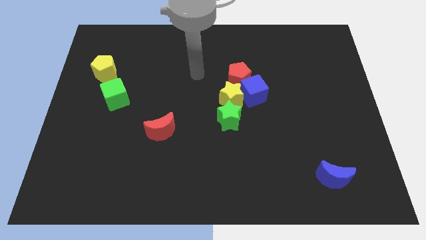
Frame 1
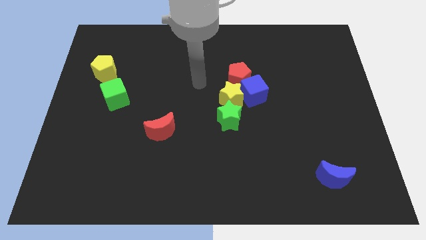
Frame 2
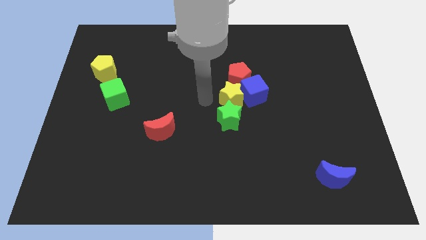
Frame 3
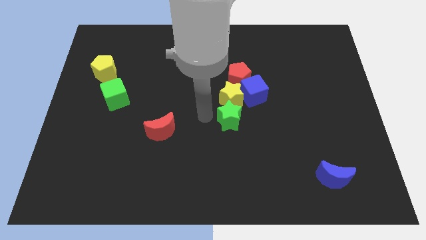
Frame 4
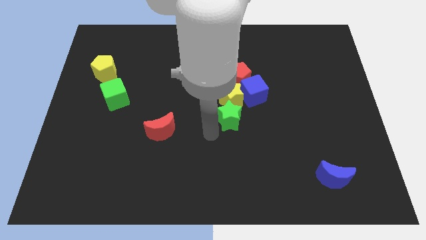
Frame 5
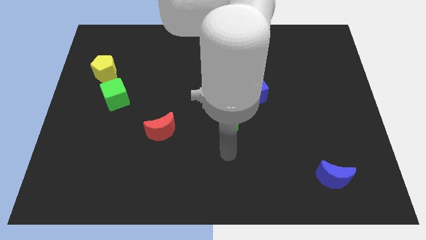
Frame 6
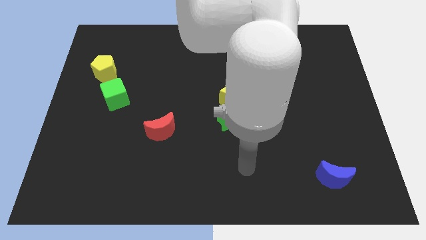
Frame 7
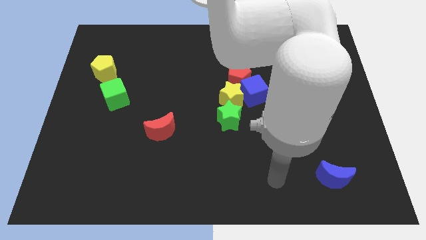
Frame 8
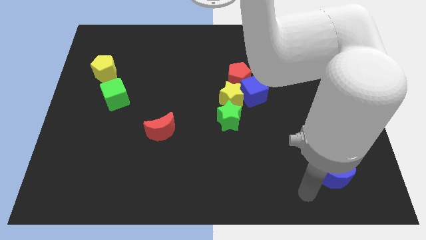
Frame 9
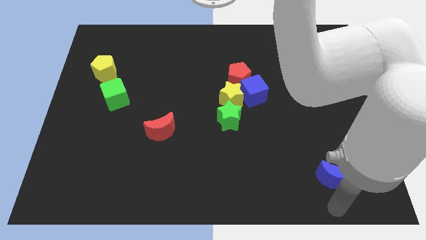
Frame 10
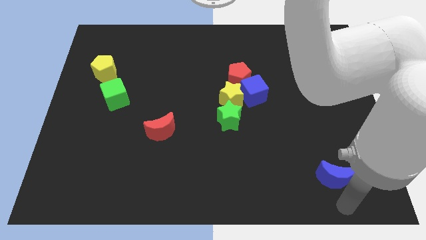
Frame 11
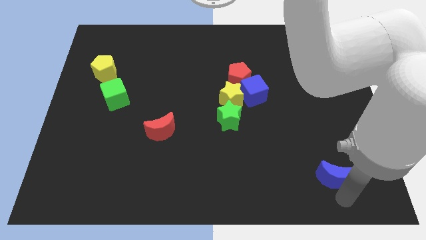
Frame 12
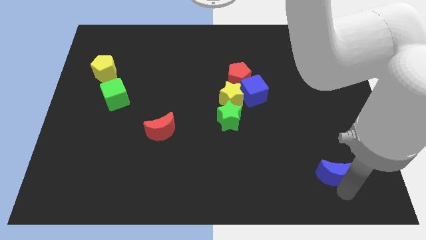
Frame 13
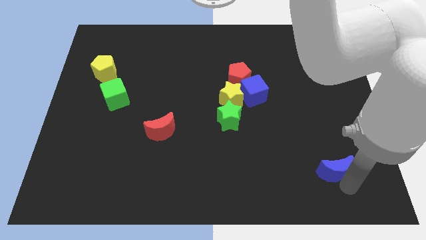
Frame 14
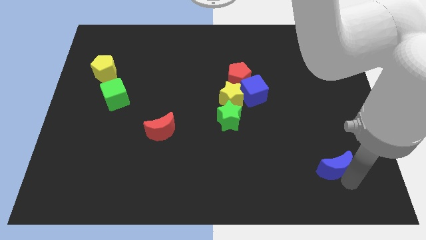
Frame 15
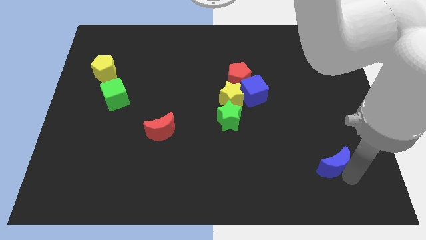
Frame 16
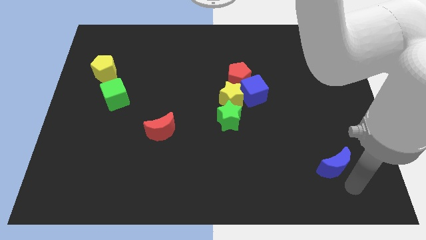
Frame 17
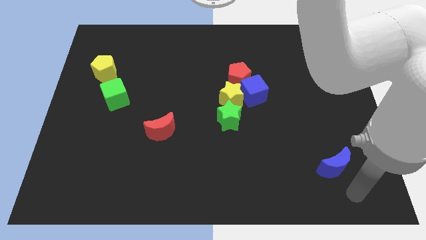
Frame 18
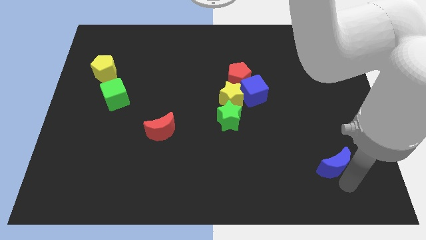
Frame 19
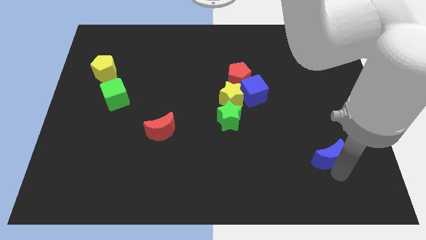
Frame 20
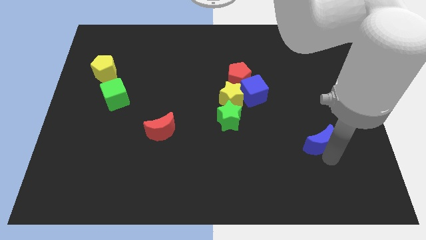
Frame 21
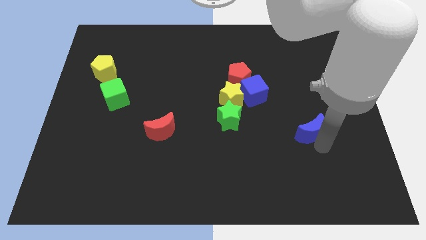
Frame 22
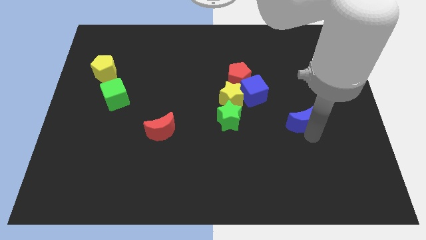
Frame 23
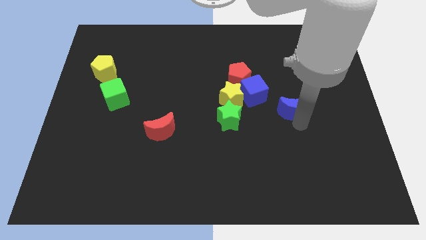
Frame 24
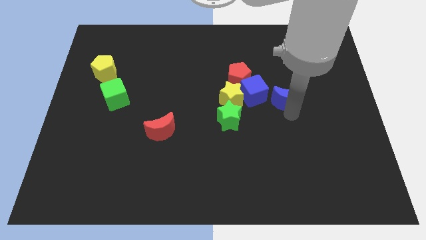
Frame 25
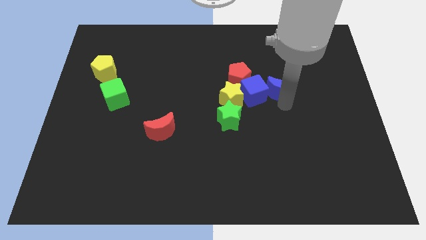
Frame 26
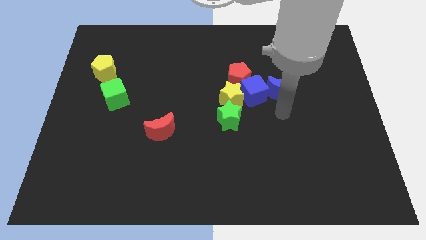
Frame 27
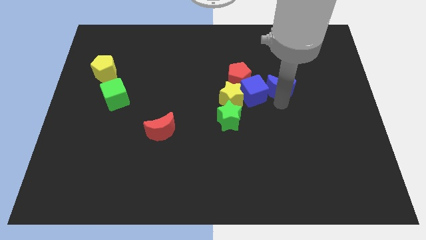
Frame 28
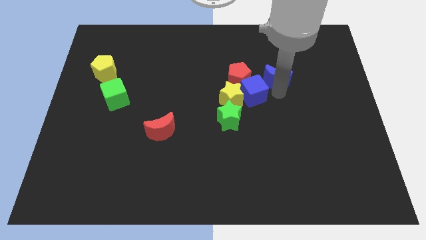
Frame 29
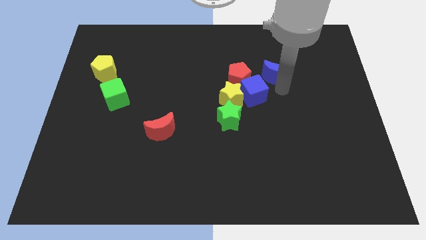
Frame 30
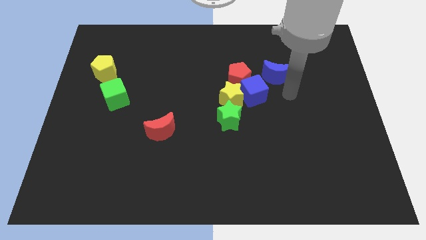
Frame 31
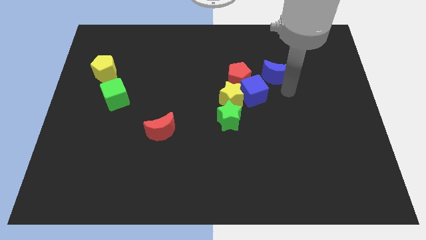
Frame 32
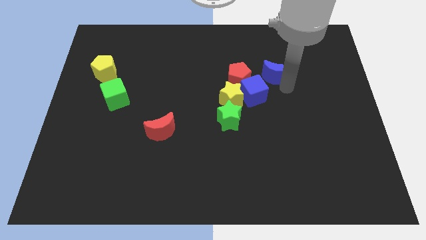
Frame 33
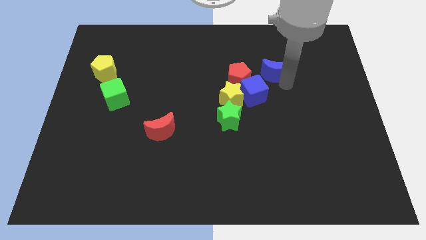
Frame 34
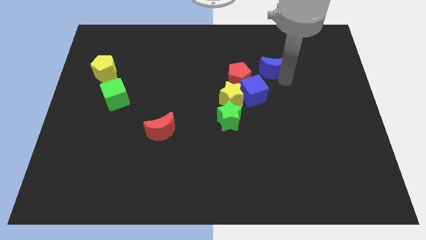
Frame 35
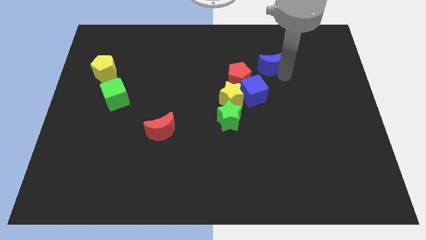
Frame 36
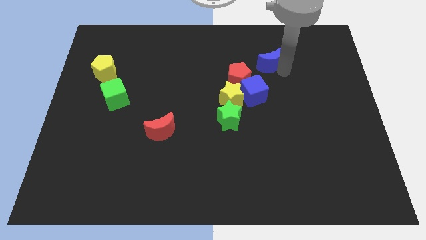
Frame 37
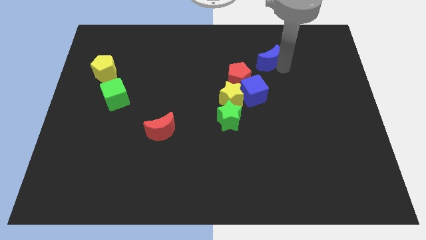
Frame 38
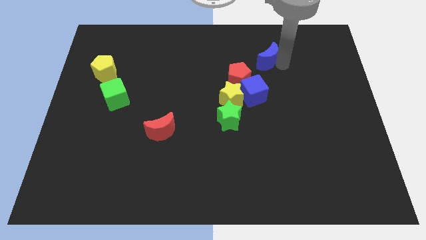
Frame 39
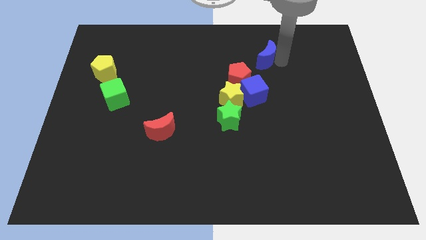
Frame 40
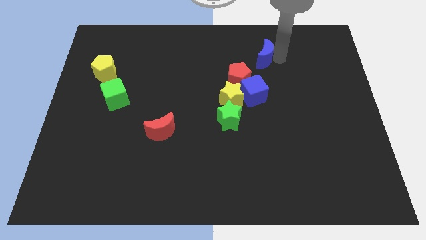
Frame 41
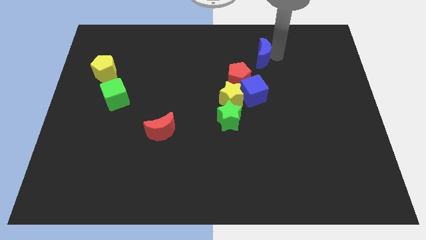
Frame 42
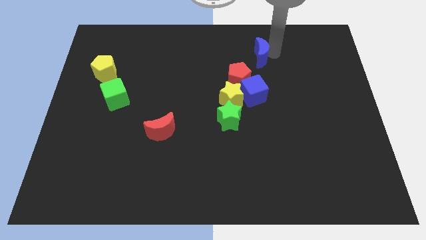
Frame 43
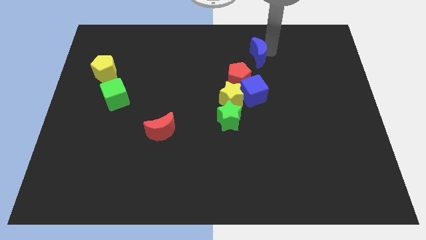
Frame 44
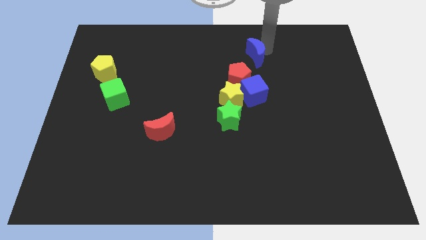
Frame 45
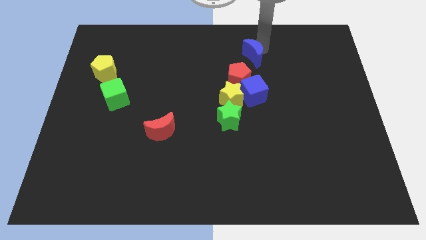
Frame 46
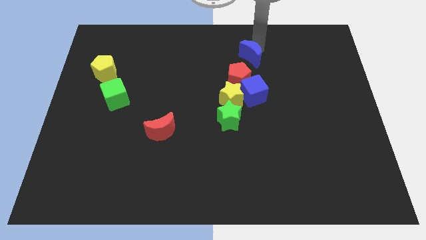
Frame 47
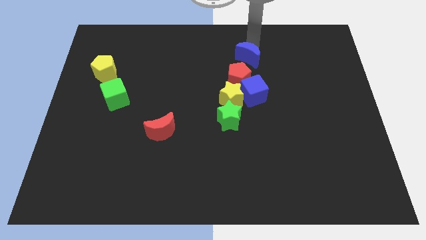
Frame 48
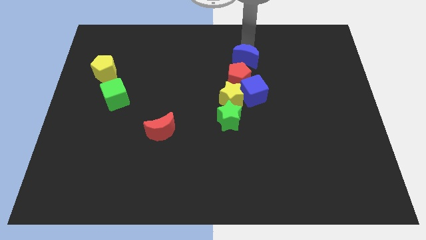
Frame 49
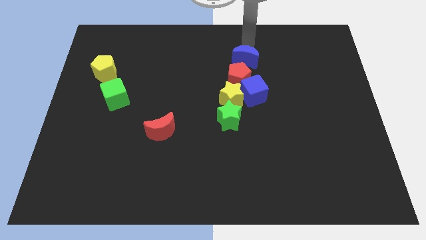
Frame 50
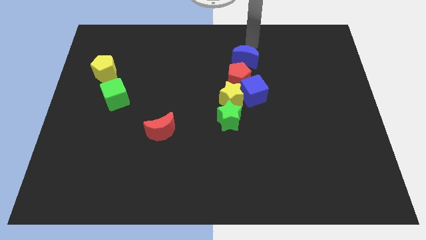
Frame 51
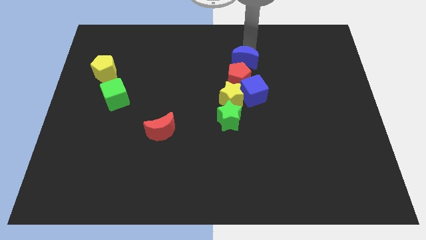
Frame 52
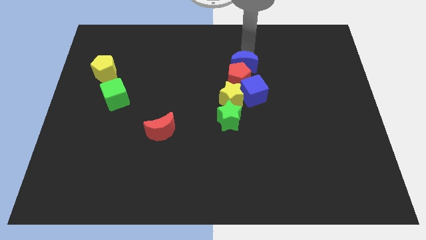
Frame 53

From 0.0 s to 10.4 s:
put the blue moon close to the red pentagon

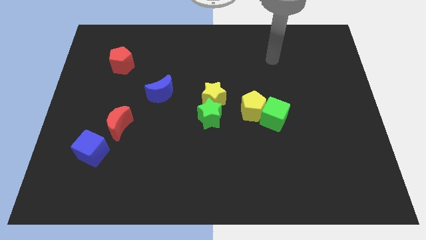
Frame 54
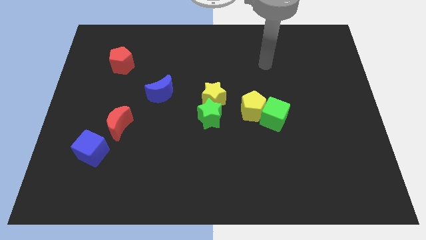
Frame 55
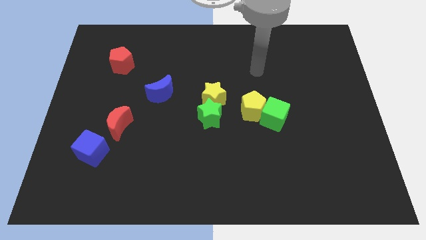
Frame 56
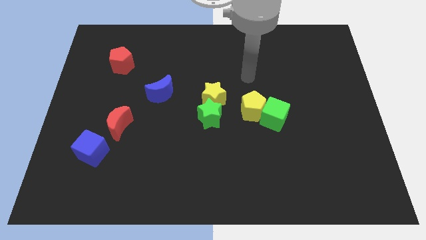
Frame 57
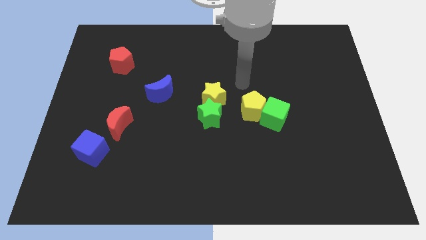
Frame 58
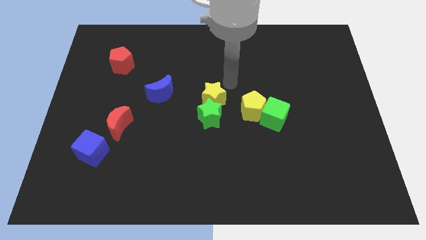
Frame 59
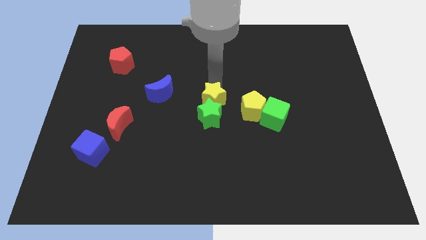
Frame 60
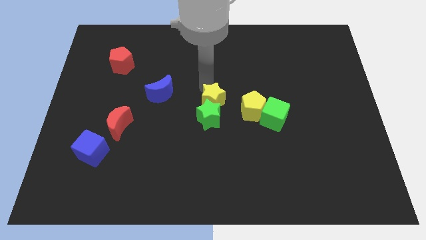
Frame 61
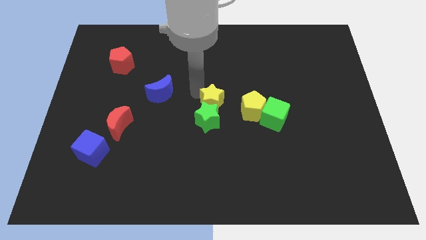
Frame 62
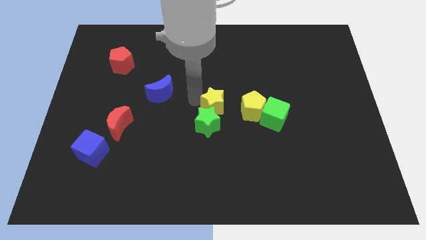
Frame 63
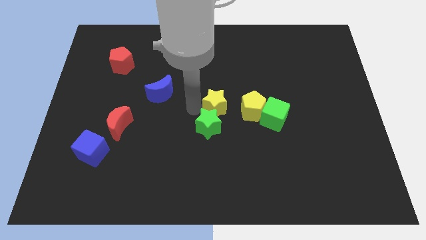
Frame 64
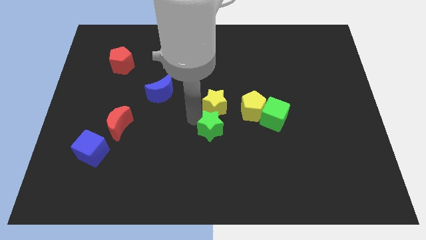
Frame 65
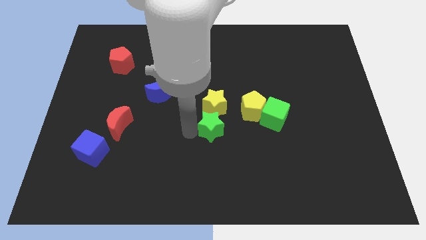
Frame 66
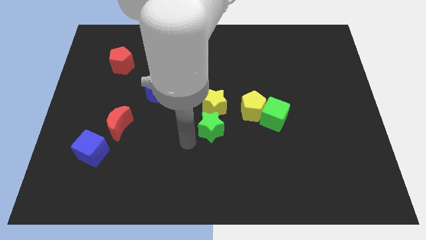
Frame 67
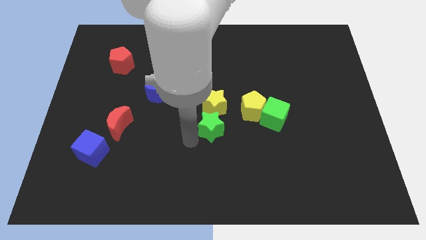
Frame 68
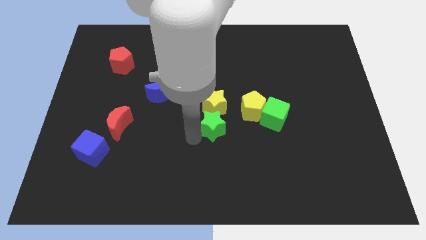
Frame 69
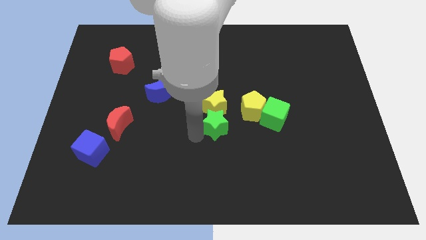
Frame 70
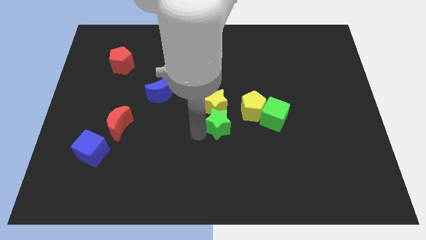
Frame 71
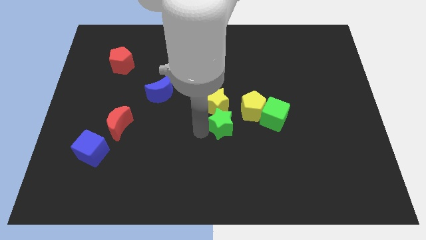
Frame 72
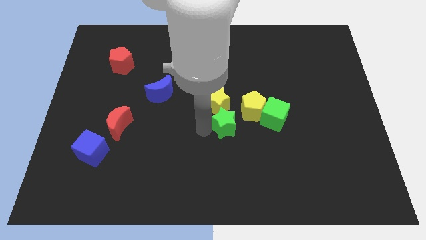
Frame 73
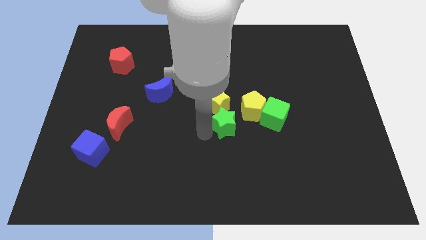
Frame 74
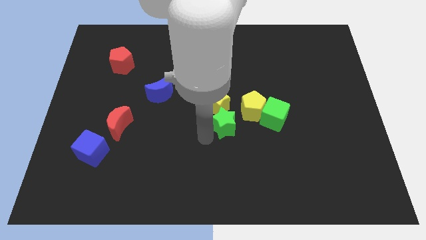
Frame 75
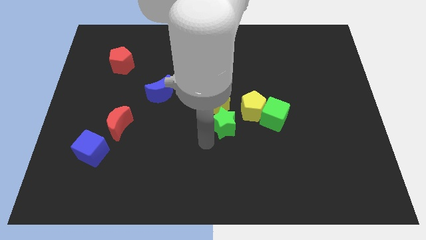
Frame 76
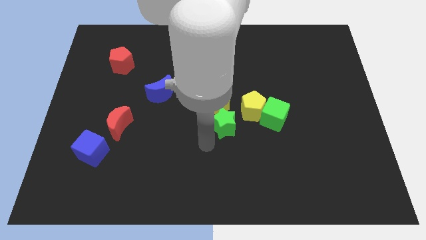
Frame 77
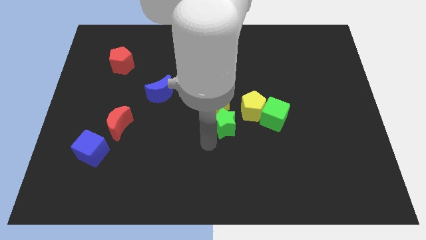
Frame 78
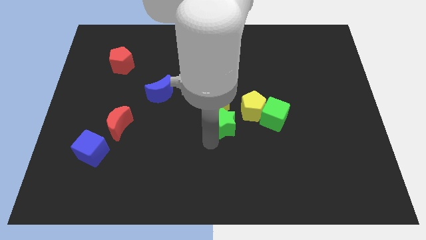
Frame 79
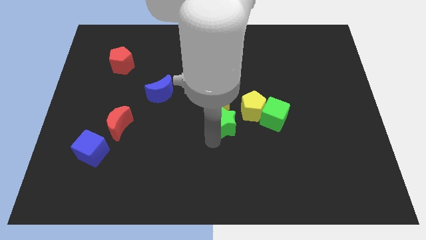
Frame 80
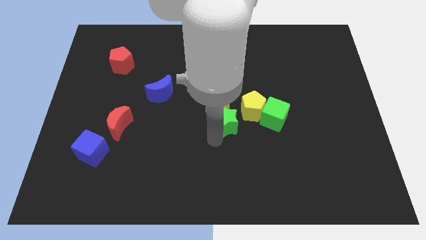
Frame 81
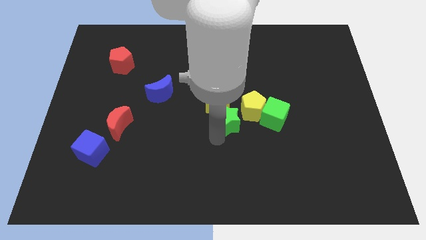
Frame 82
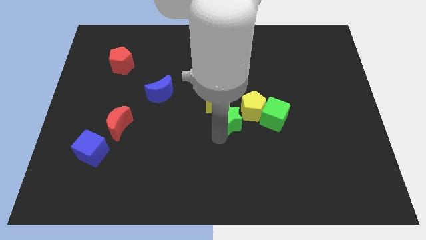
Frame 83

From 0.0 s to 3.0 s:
push the green star close to the yellow pentagon
